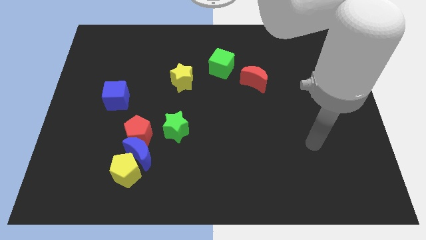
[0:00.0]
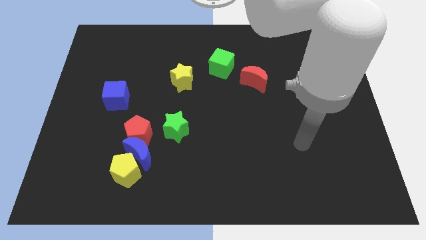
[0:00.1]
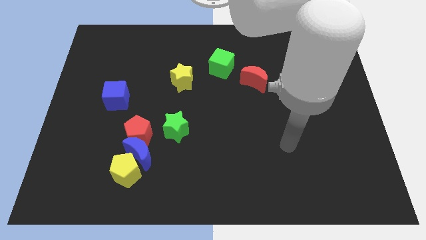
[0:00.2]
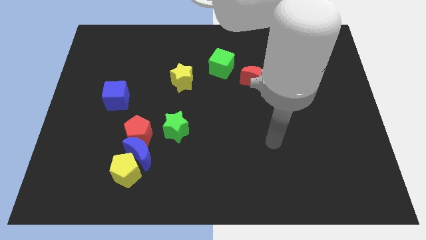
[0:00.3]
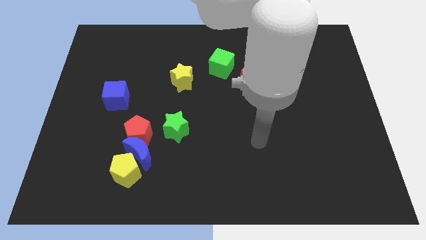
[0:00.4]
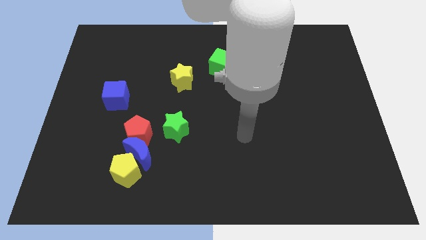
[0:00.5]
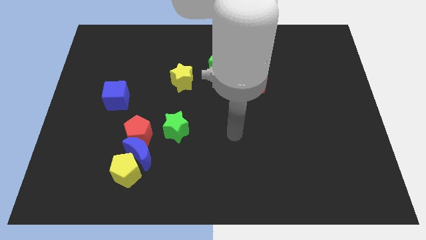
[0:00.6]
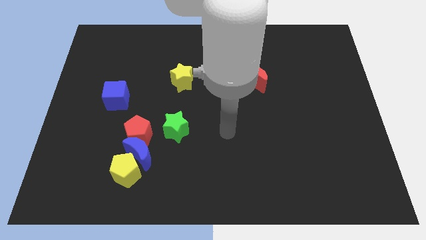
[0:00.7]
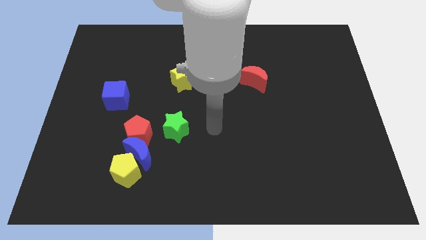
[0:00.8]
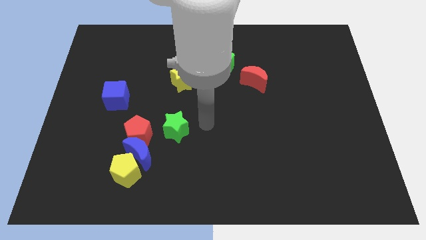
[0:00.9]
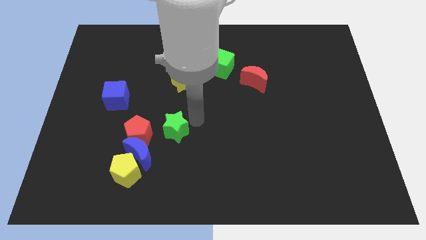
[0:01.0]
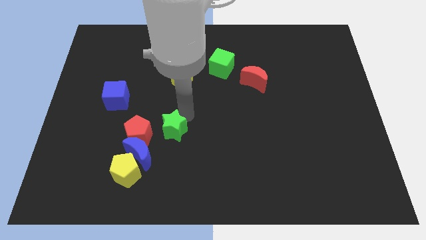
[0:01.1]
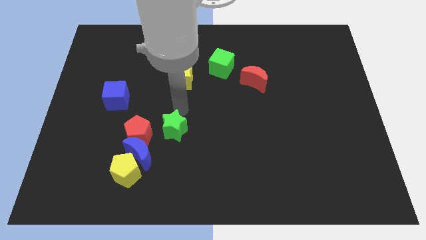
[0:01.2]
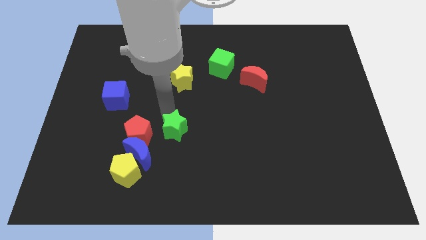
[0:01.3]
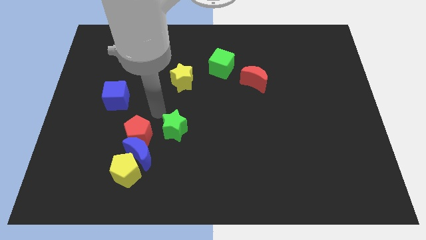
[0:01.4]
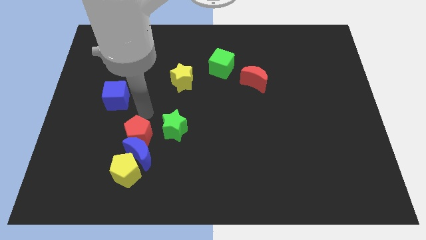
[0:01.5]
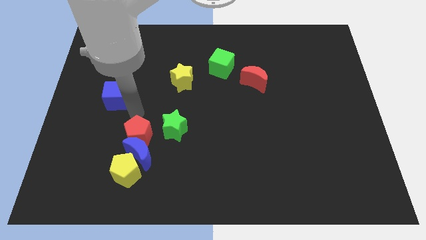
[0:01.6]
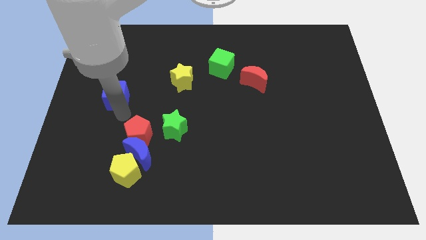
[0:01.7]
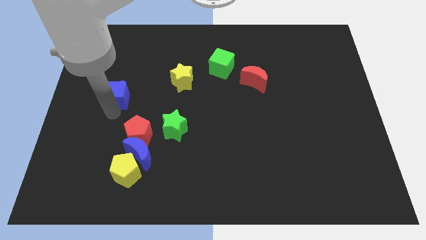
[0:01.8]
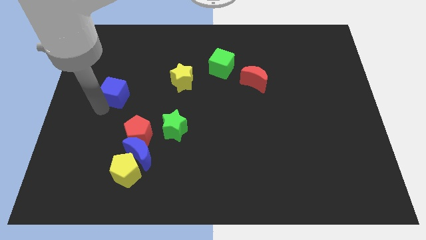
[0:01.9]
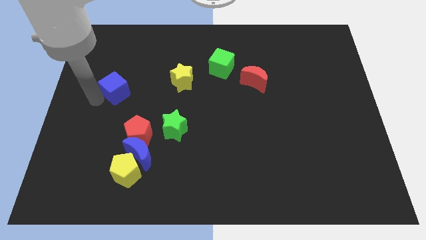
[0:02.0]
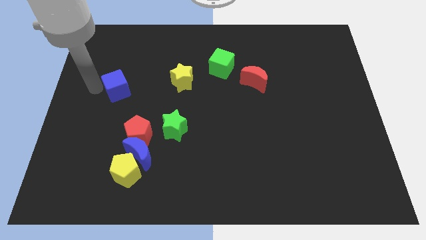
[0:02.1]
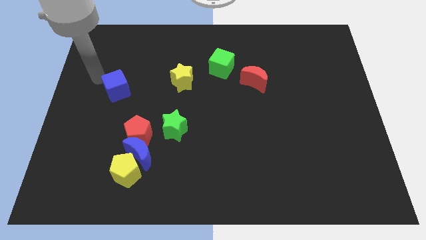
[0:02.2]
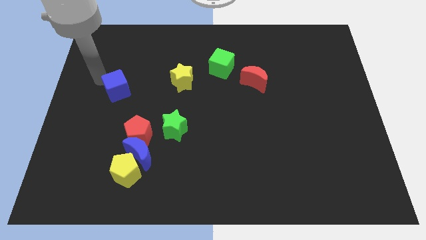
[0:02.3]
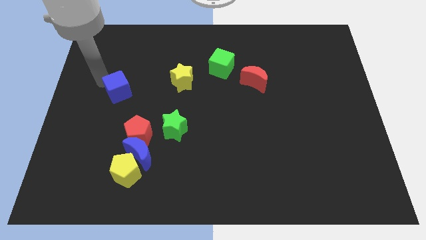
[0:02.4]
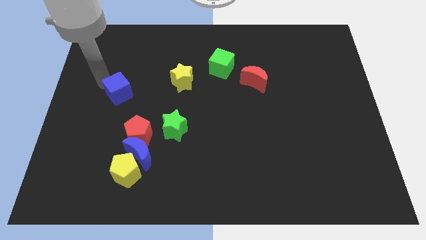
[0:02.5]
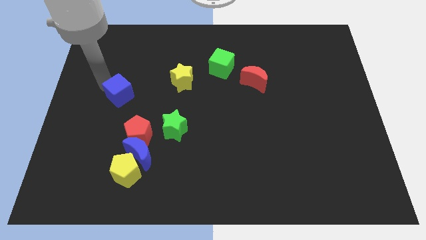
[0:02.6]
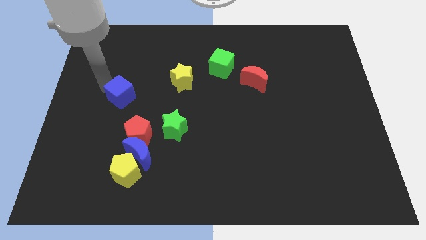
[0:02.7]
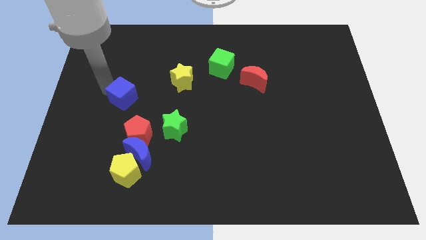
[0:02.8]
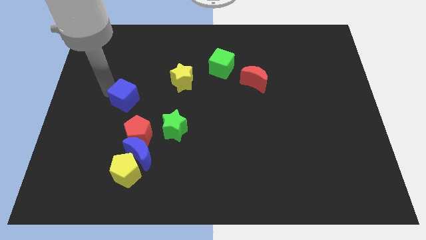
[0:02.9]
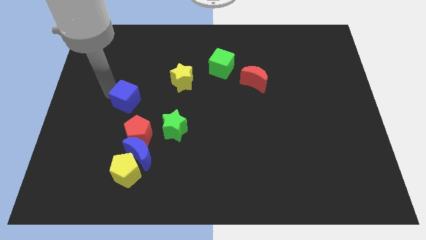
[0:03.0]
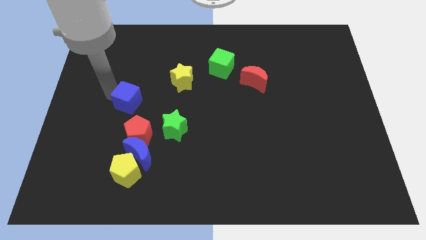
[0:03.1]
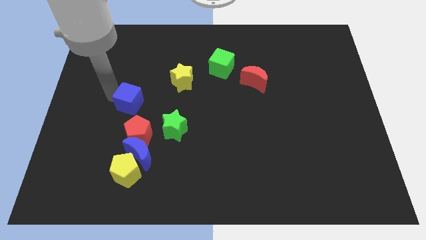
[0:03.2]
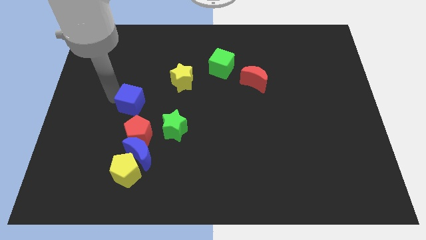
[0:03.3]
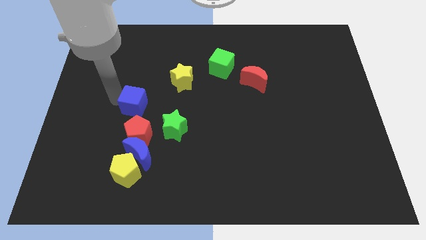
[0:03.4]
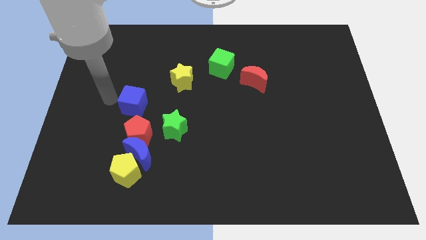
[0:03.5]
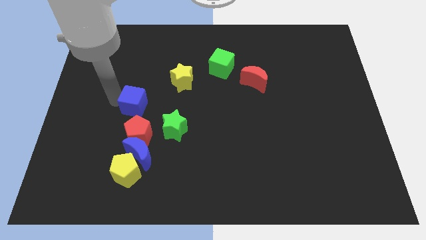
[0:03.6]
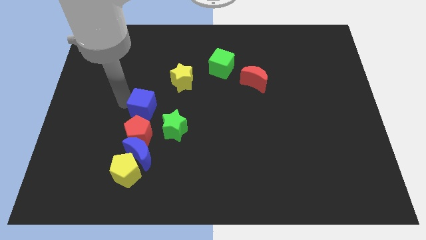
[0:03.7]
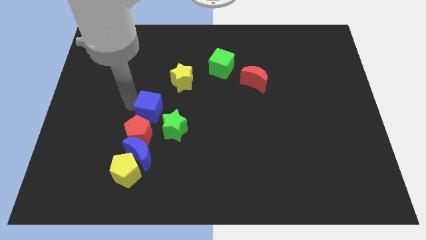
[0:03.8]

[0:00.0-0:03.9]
slightly slide the blue cube down and right

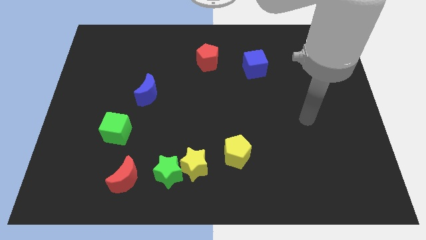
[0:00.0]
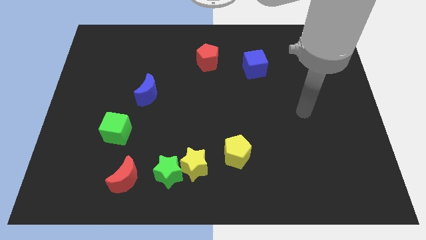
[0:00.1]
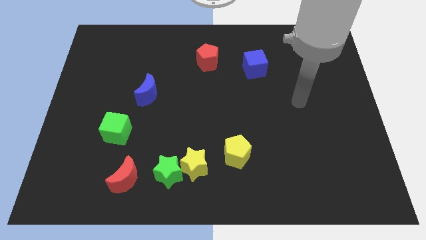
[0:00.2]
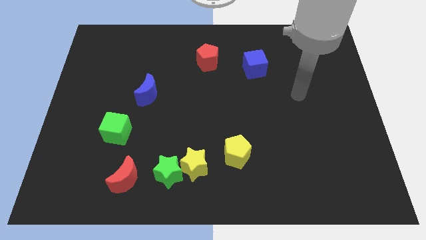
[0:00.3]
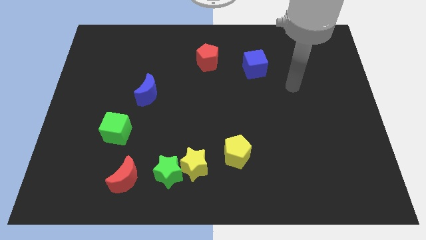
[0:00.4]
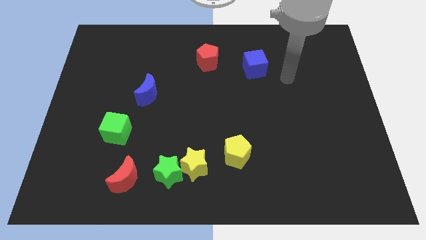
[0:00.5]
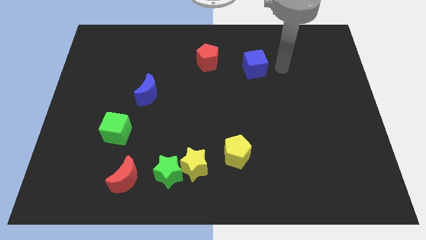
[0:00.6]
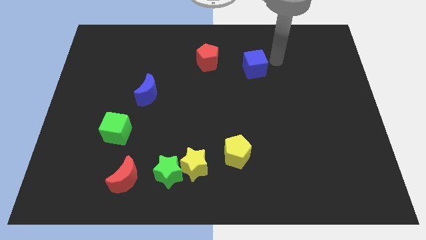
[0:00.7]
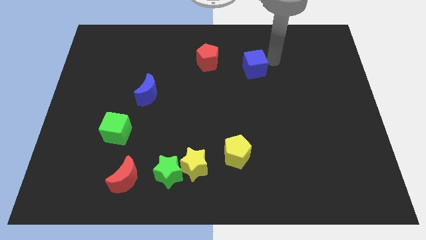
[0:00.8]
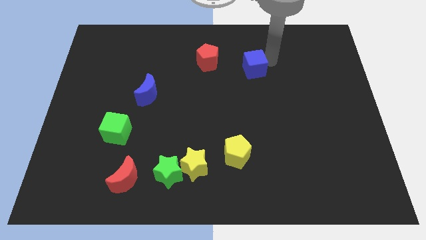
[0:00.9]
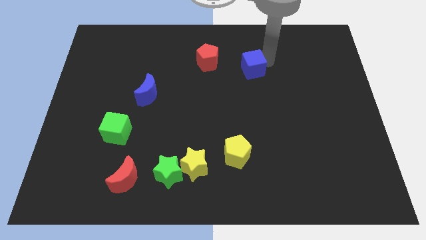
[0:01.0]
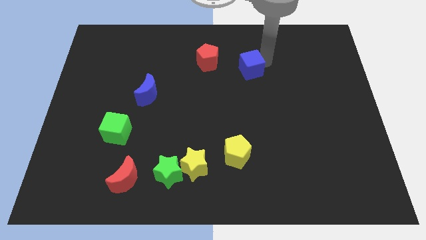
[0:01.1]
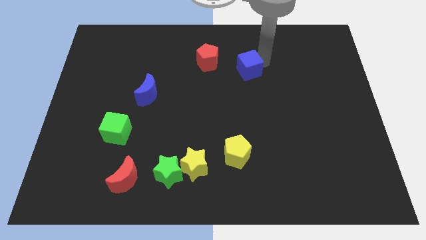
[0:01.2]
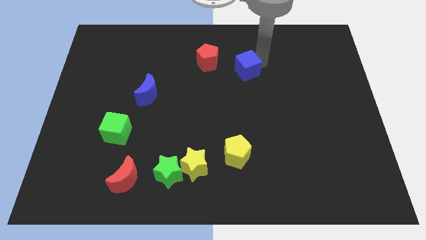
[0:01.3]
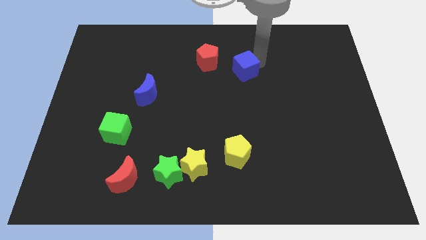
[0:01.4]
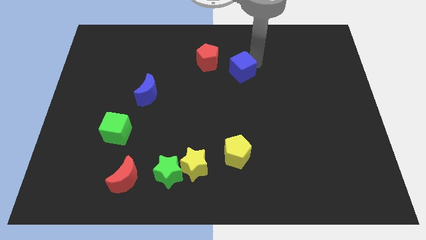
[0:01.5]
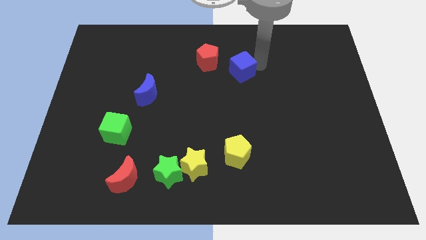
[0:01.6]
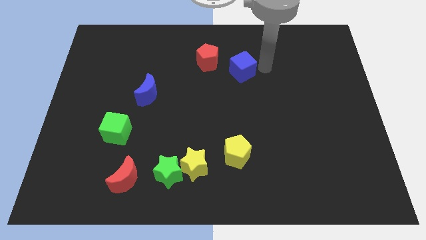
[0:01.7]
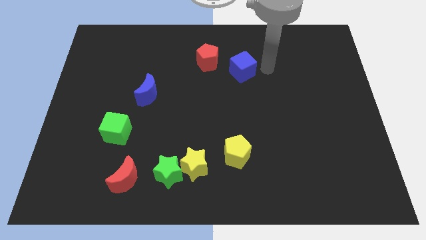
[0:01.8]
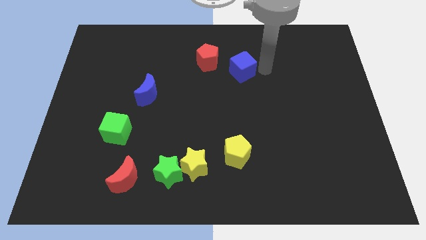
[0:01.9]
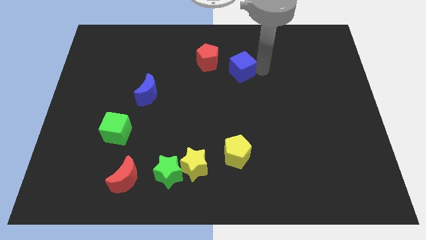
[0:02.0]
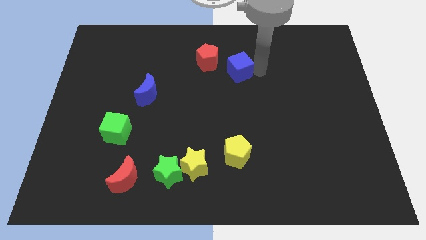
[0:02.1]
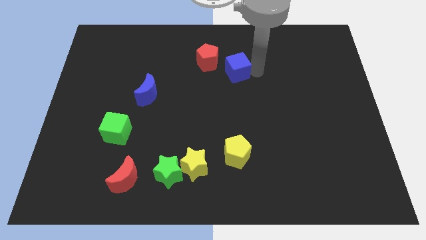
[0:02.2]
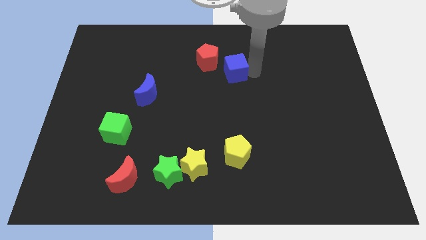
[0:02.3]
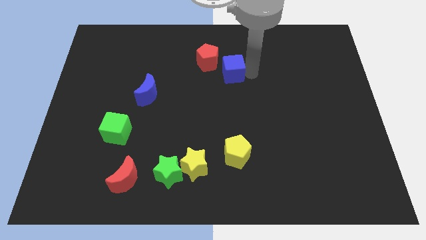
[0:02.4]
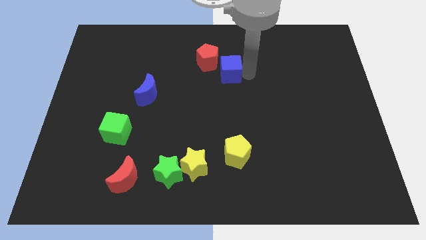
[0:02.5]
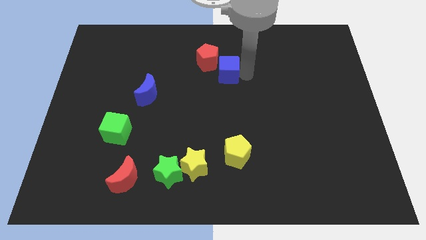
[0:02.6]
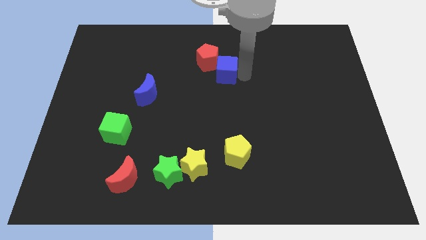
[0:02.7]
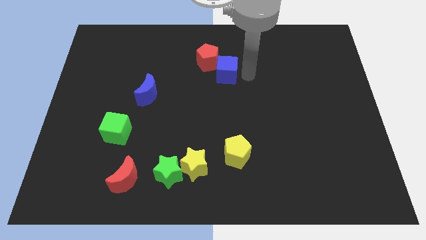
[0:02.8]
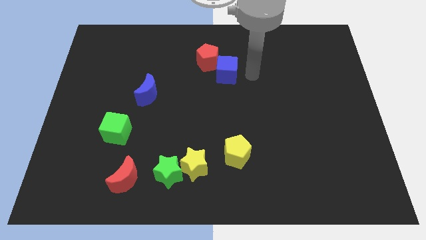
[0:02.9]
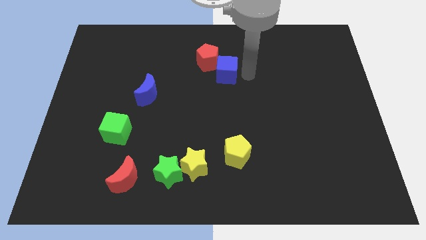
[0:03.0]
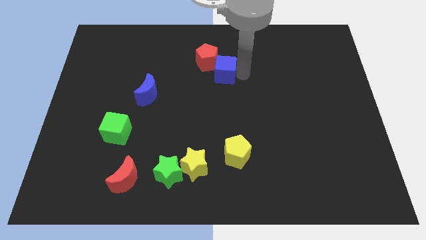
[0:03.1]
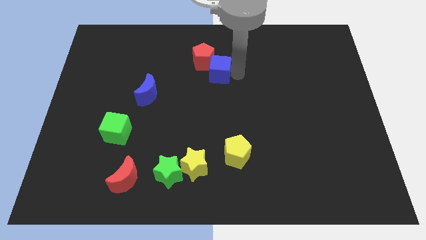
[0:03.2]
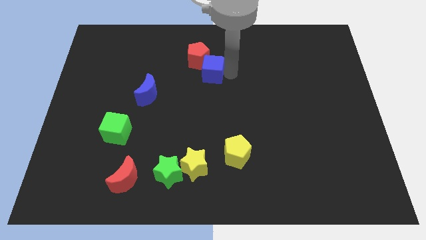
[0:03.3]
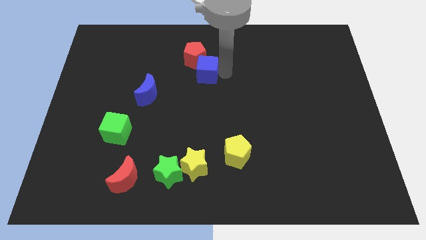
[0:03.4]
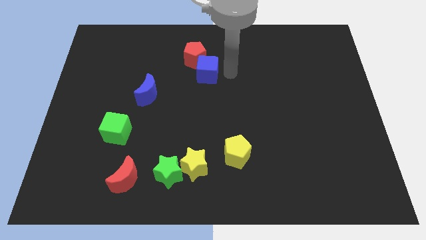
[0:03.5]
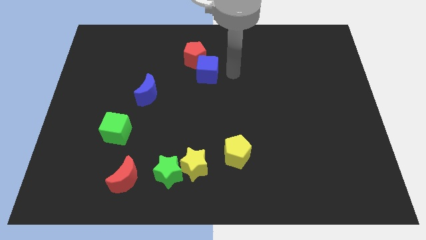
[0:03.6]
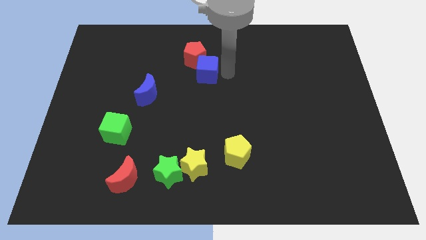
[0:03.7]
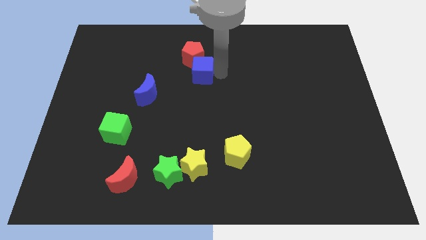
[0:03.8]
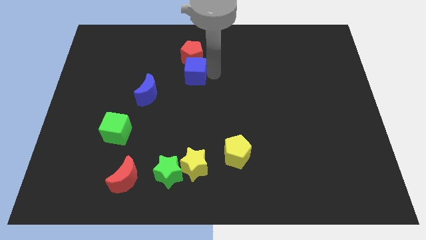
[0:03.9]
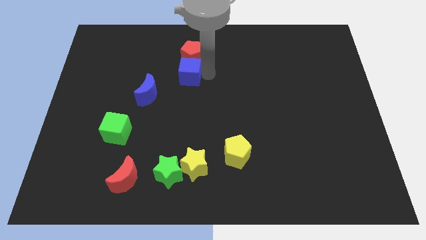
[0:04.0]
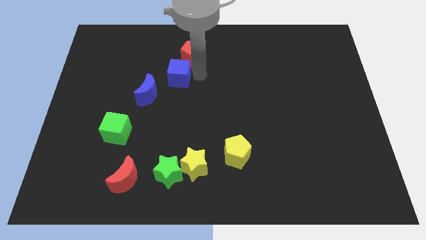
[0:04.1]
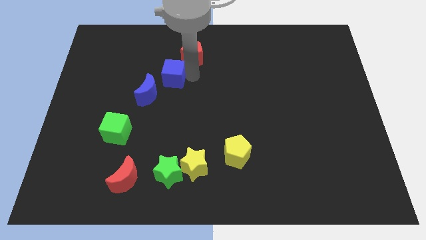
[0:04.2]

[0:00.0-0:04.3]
push the blue cube left
